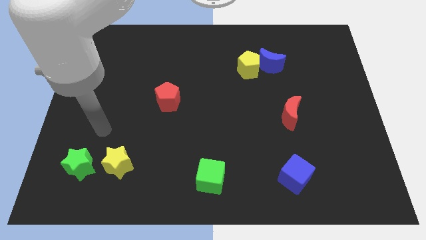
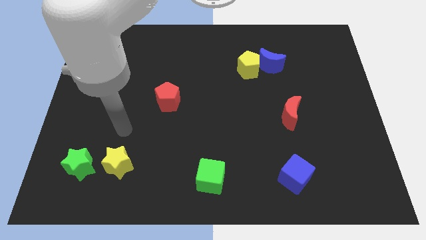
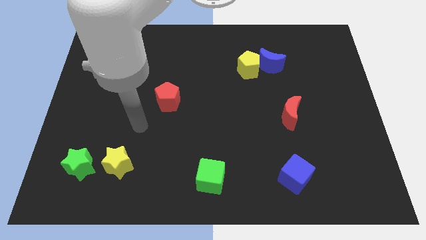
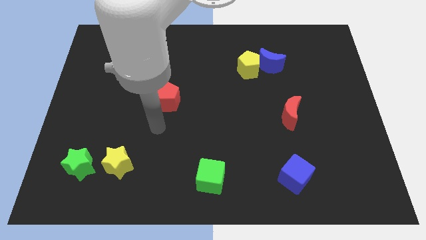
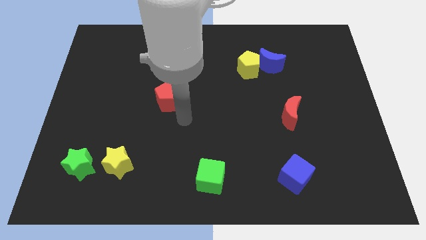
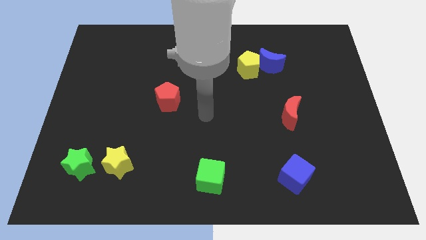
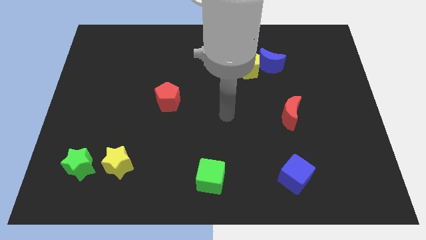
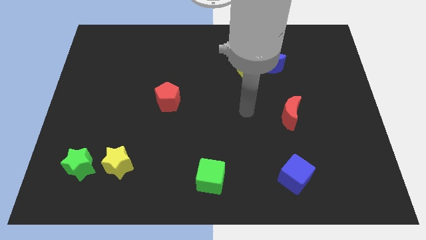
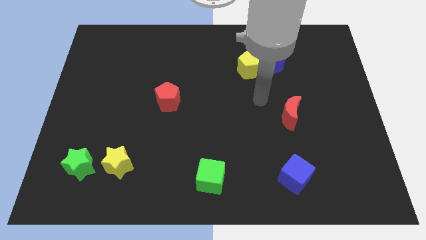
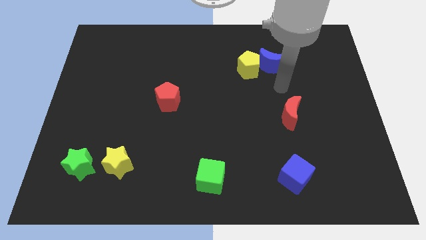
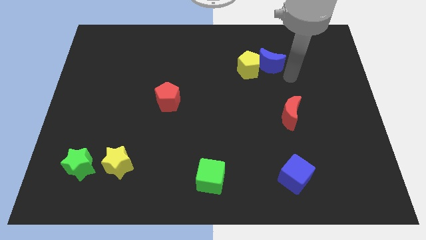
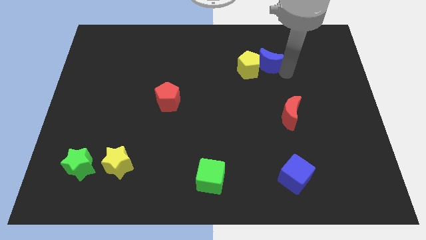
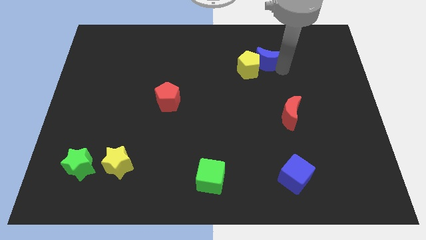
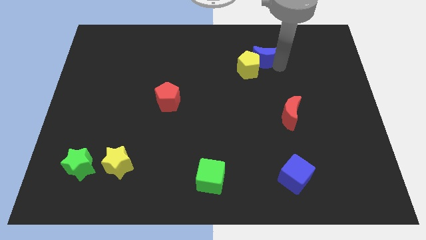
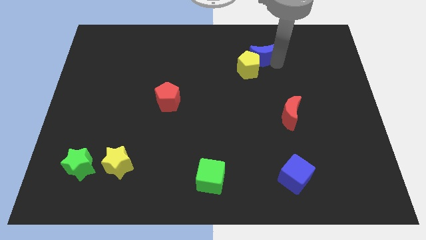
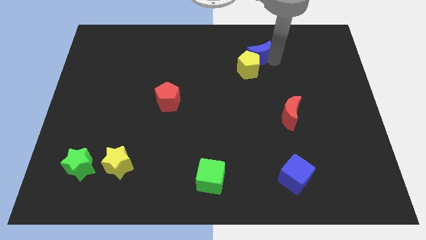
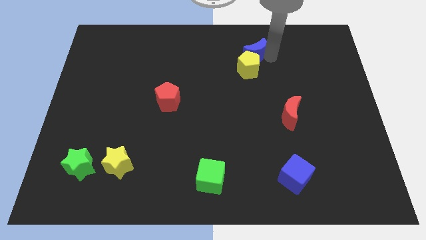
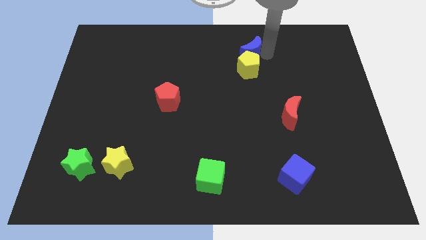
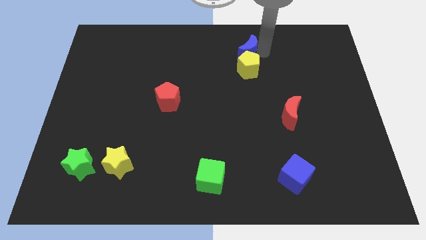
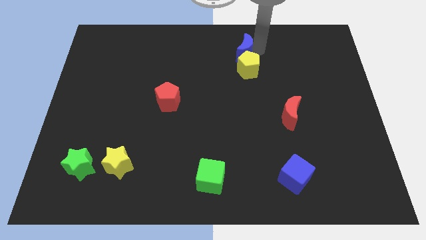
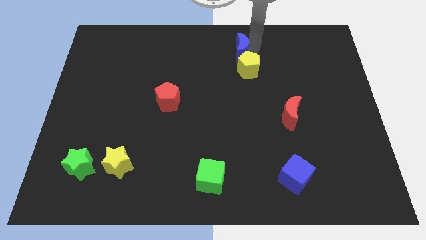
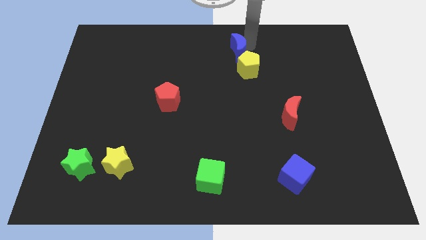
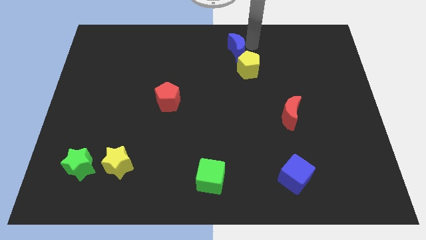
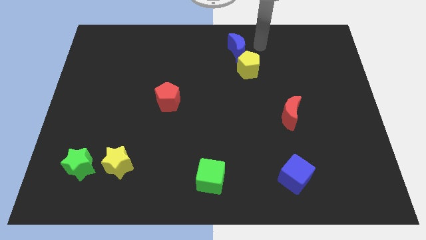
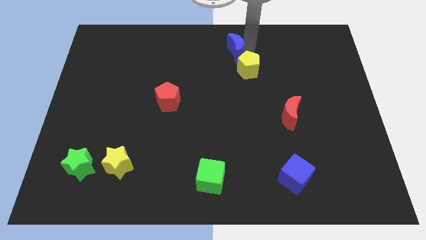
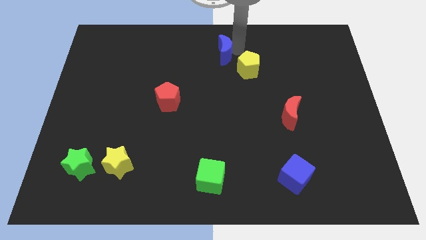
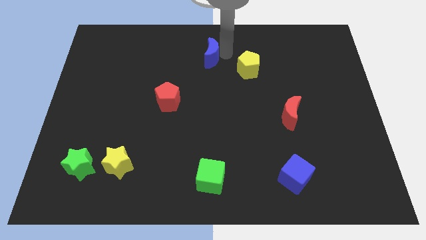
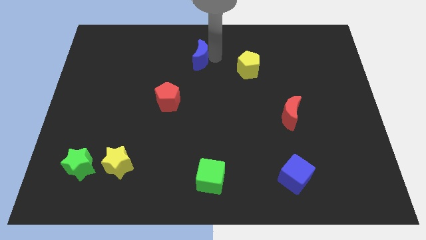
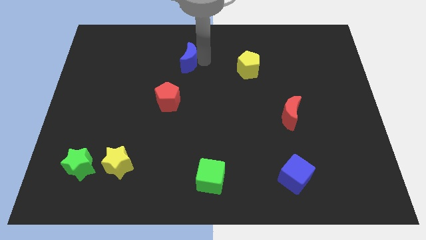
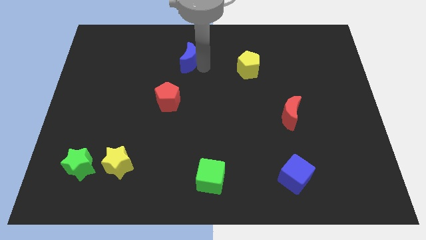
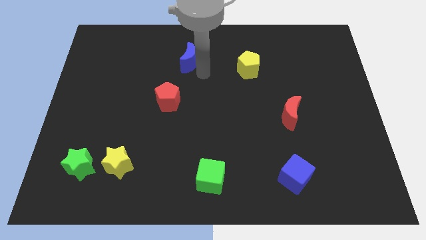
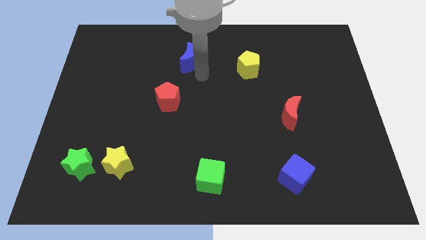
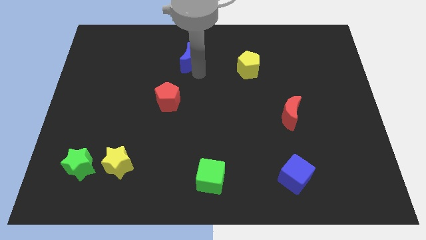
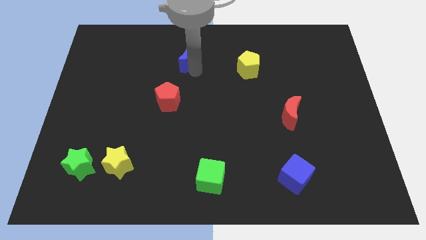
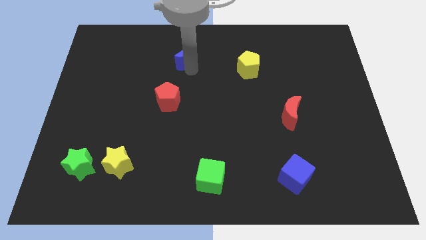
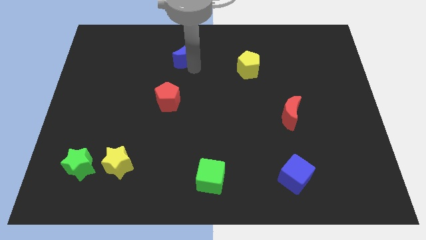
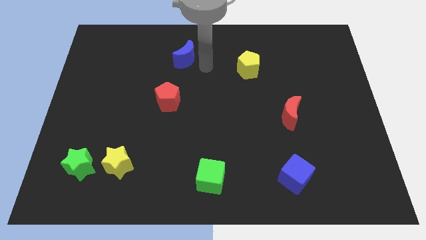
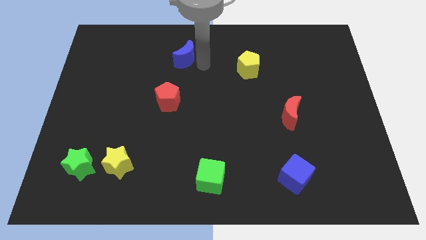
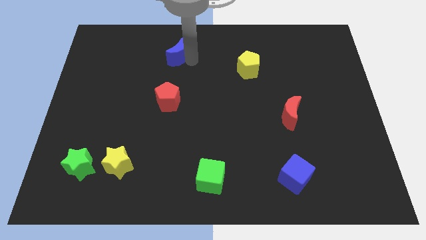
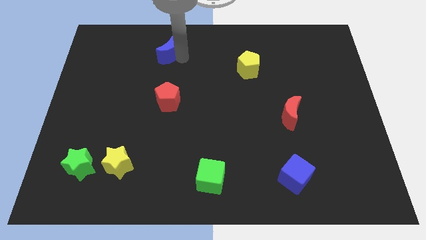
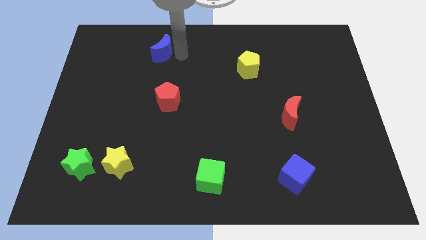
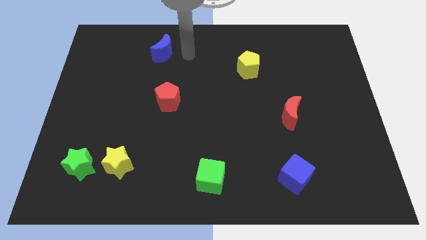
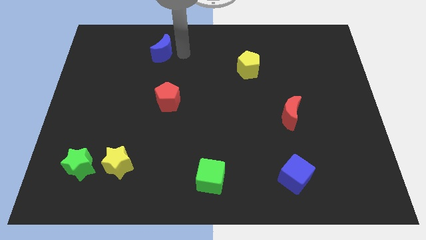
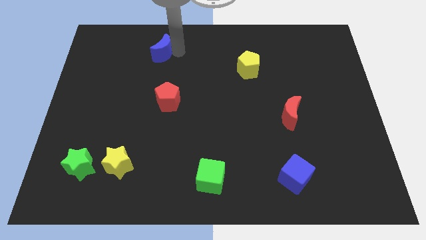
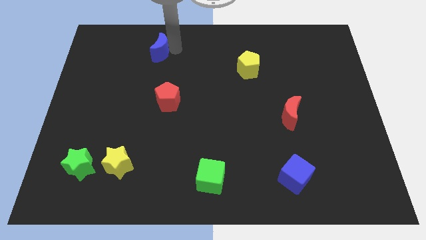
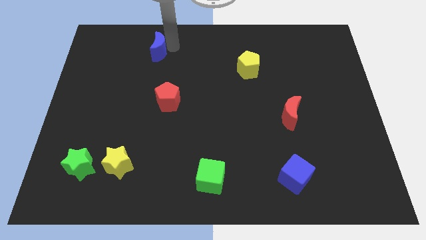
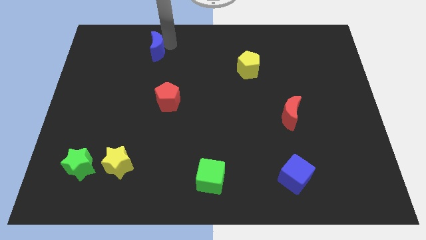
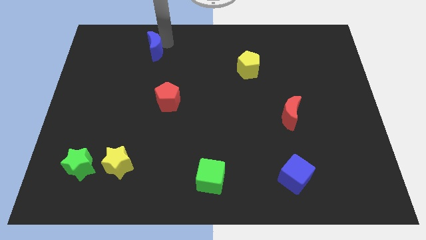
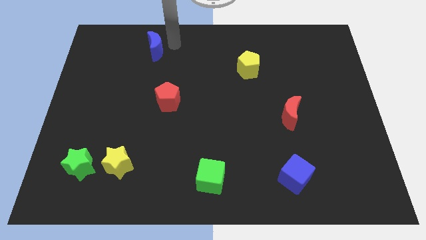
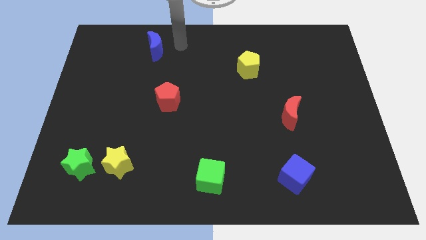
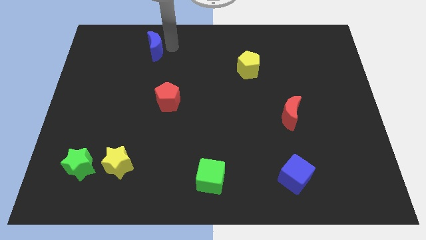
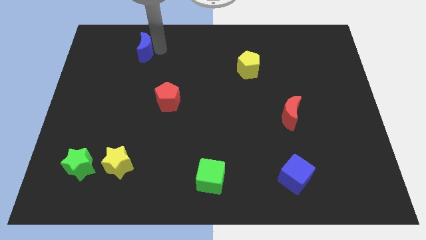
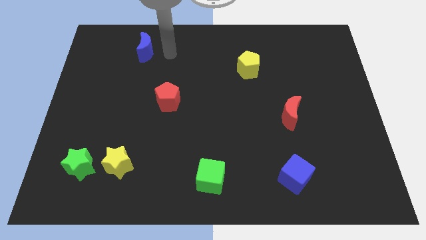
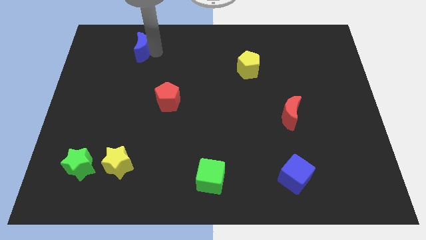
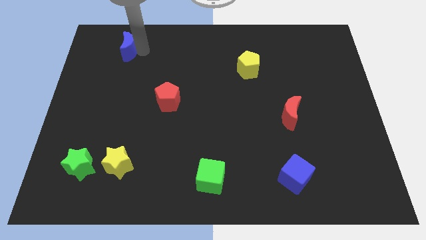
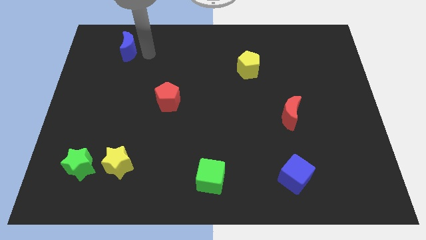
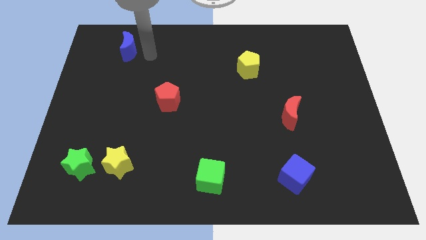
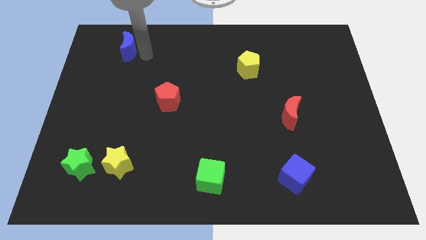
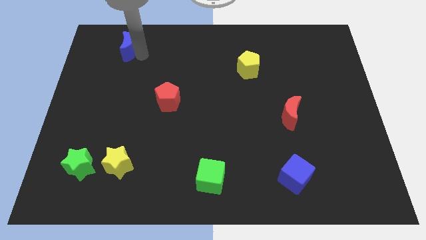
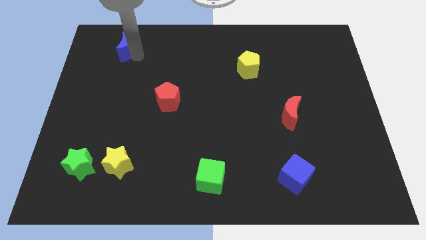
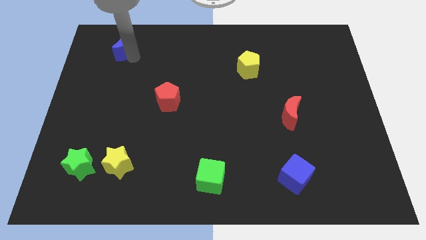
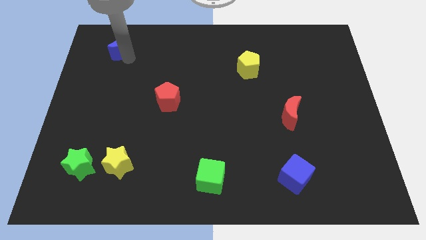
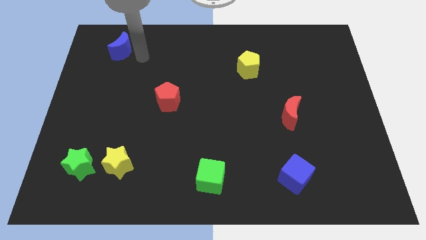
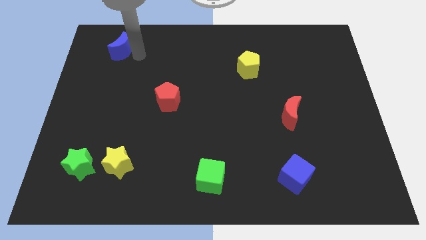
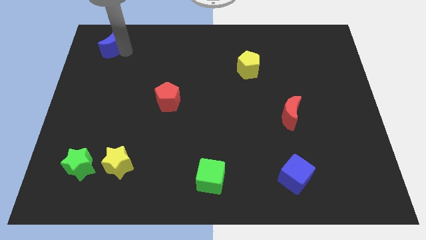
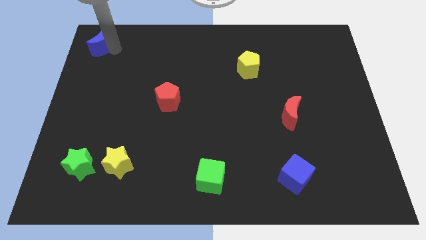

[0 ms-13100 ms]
move the blue moon to the top left
